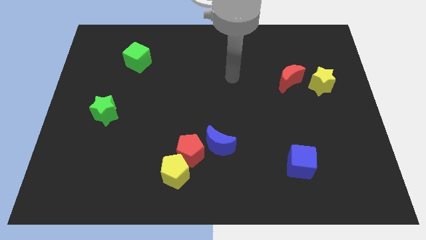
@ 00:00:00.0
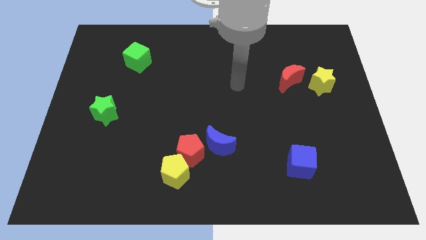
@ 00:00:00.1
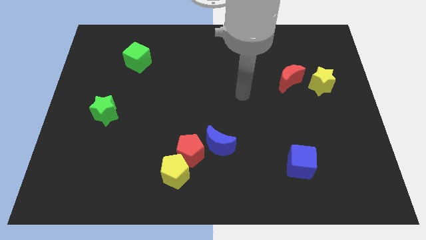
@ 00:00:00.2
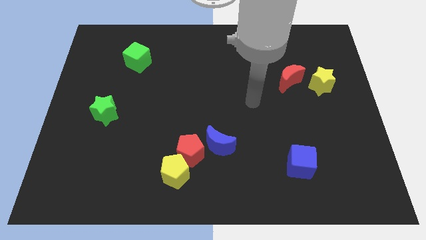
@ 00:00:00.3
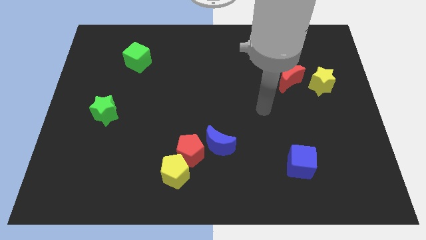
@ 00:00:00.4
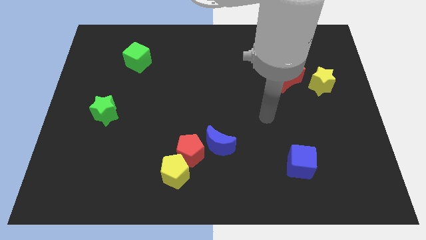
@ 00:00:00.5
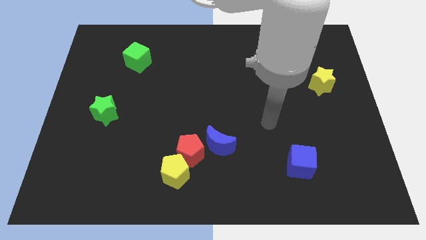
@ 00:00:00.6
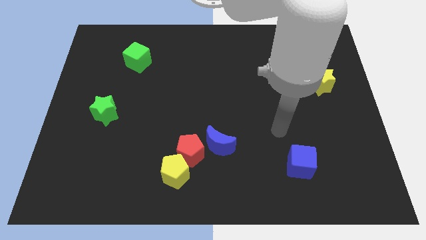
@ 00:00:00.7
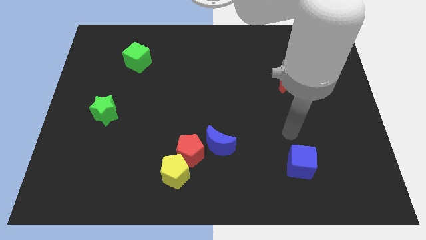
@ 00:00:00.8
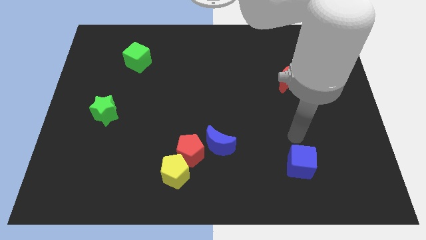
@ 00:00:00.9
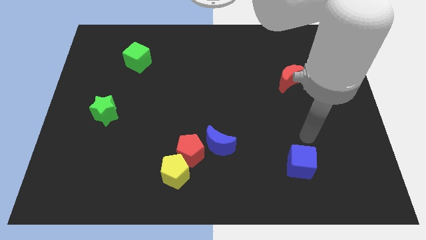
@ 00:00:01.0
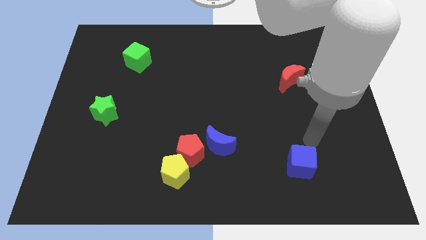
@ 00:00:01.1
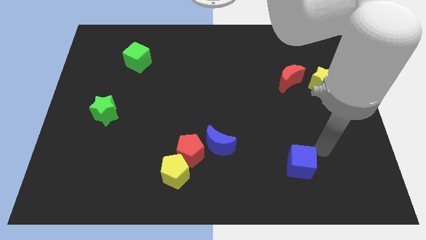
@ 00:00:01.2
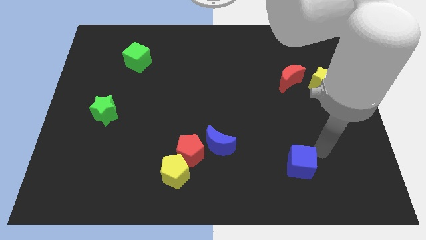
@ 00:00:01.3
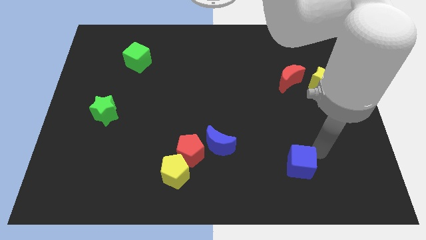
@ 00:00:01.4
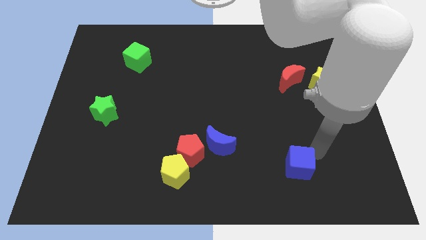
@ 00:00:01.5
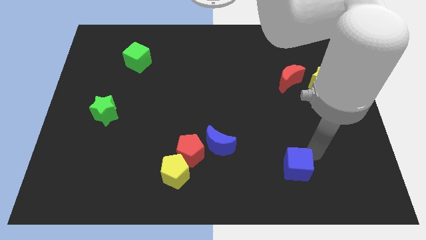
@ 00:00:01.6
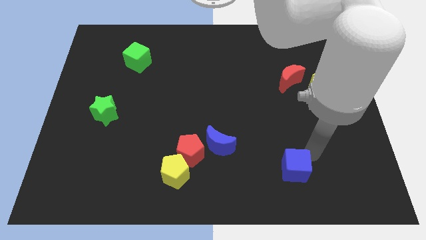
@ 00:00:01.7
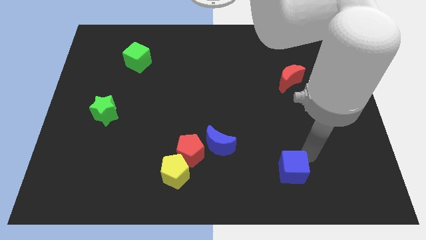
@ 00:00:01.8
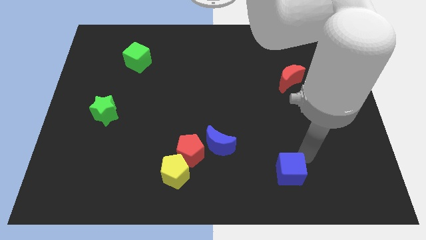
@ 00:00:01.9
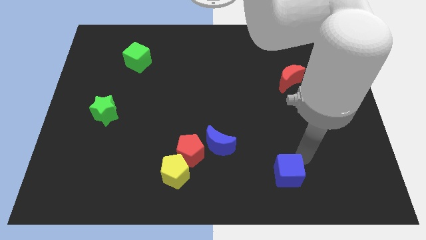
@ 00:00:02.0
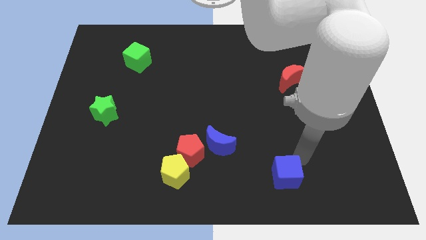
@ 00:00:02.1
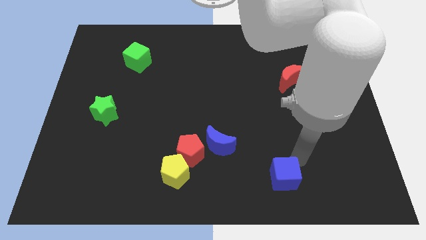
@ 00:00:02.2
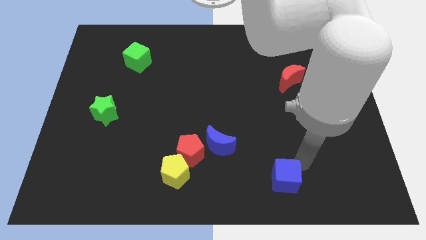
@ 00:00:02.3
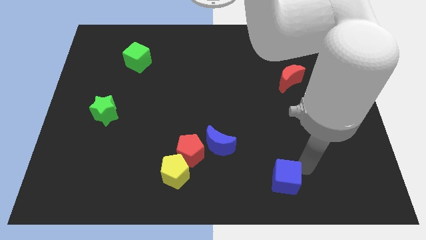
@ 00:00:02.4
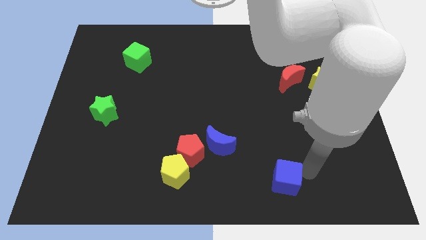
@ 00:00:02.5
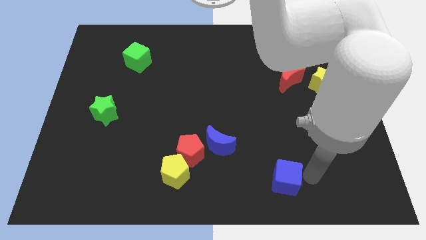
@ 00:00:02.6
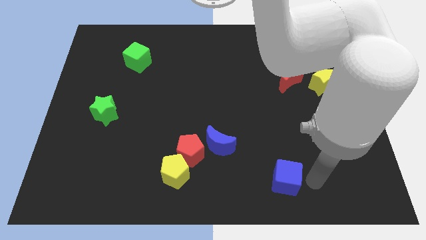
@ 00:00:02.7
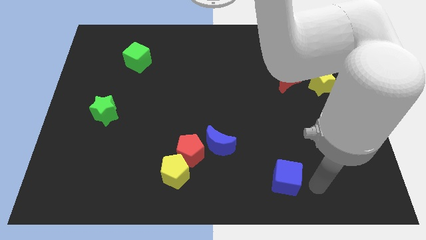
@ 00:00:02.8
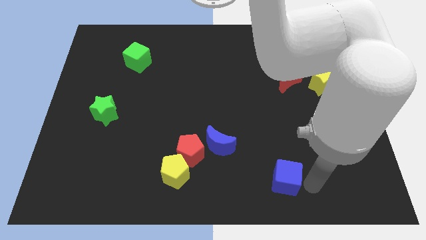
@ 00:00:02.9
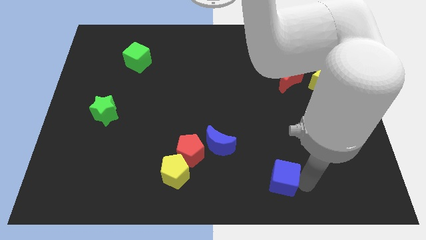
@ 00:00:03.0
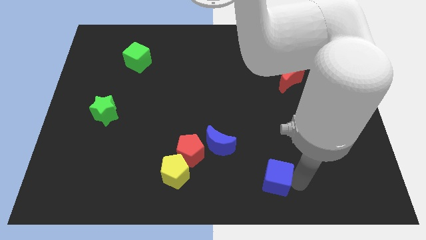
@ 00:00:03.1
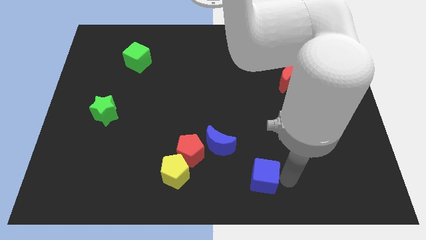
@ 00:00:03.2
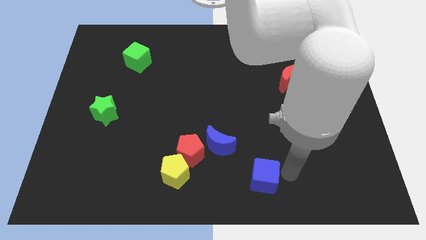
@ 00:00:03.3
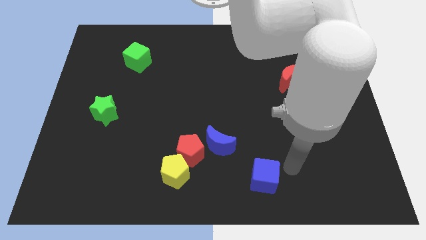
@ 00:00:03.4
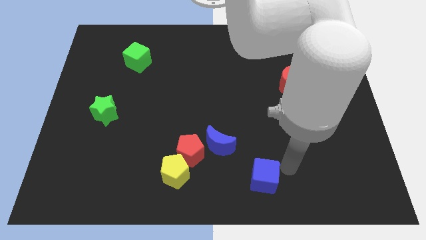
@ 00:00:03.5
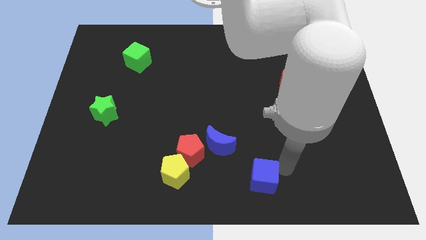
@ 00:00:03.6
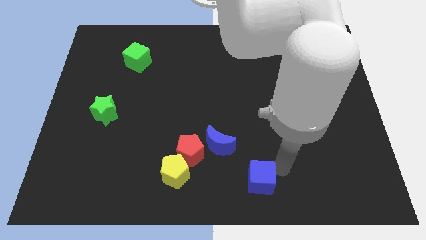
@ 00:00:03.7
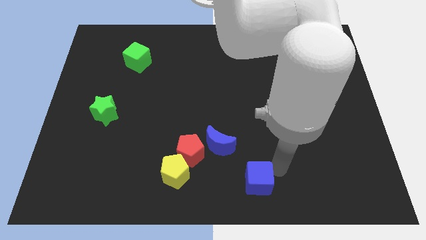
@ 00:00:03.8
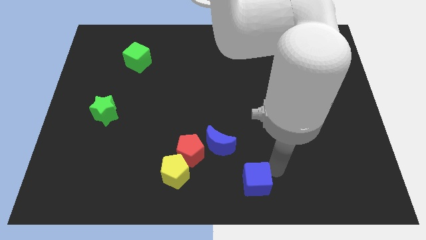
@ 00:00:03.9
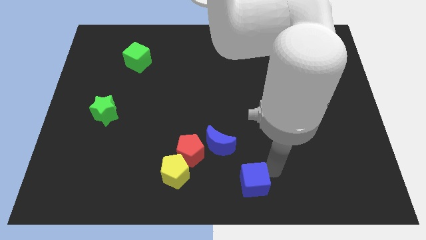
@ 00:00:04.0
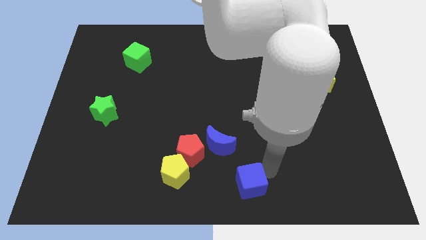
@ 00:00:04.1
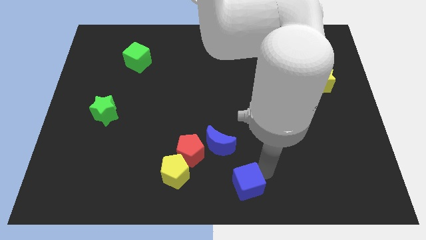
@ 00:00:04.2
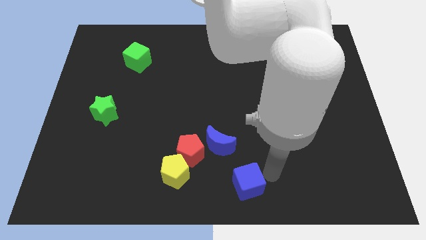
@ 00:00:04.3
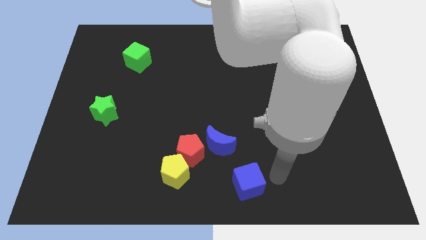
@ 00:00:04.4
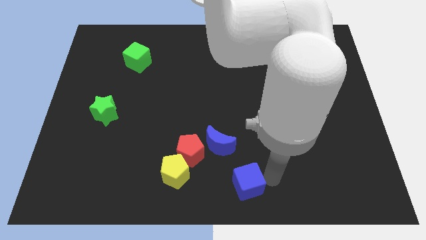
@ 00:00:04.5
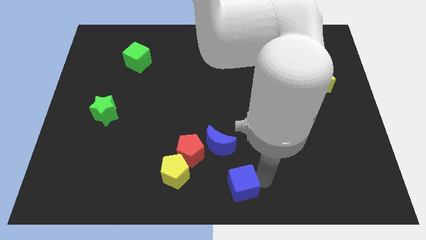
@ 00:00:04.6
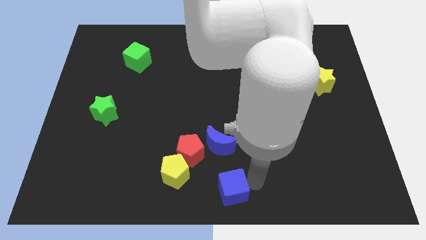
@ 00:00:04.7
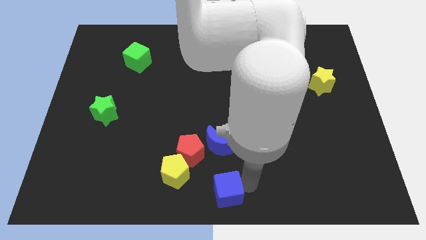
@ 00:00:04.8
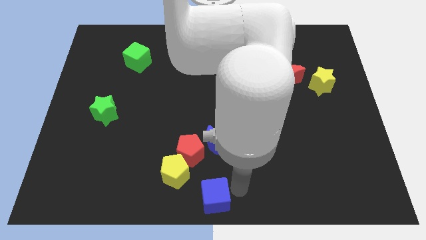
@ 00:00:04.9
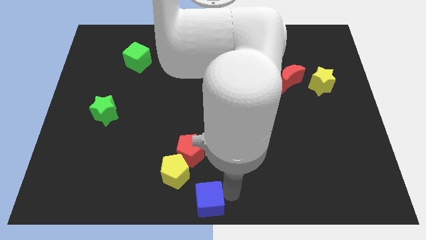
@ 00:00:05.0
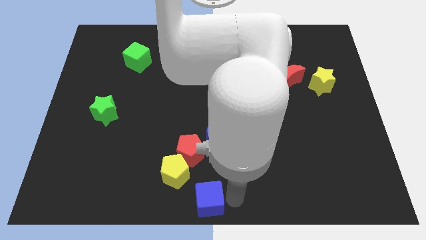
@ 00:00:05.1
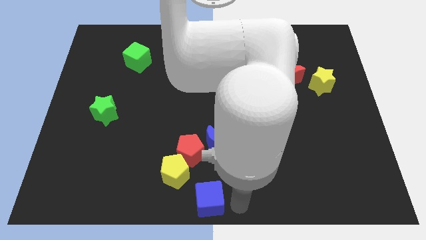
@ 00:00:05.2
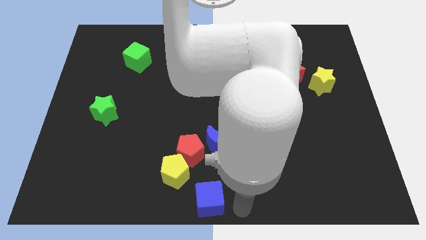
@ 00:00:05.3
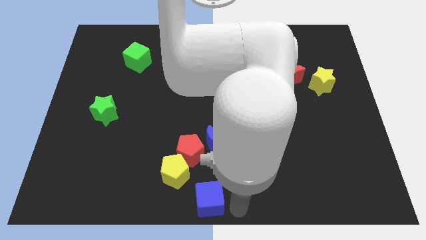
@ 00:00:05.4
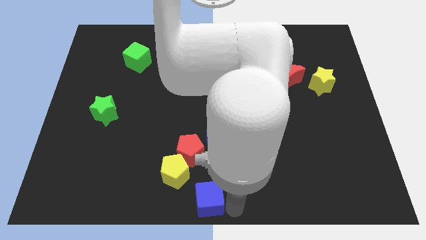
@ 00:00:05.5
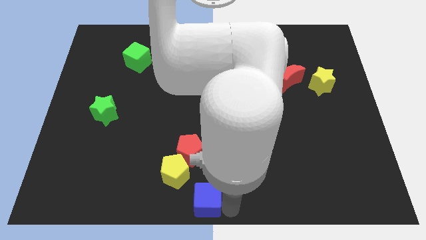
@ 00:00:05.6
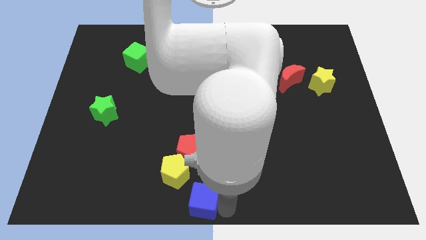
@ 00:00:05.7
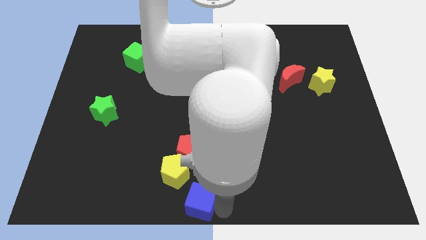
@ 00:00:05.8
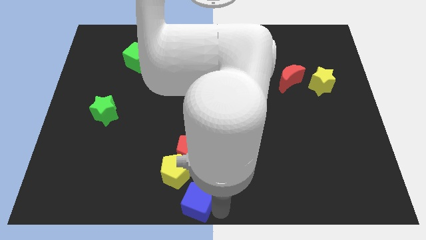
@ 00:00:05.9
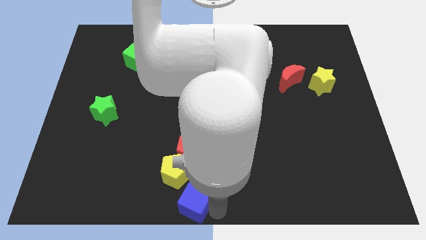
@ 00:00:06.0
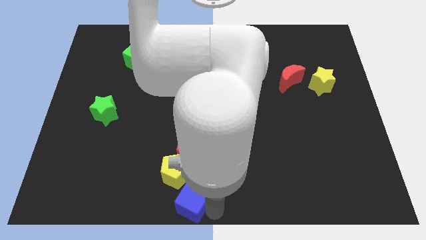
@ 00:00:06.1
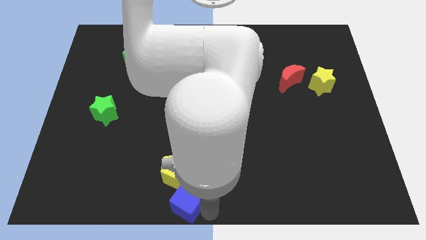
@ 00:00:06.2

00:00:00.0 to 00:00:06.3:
slide the blue cube left

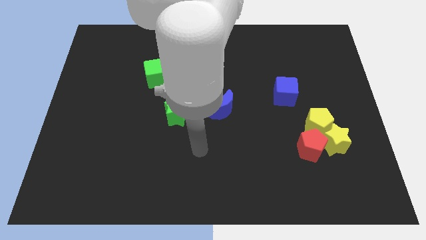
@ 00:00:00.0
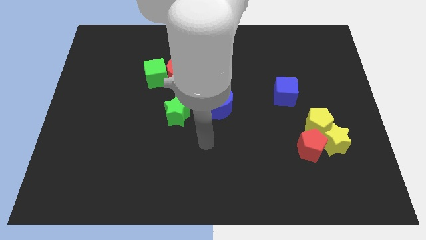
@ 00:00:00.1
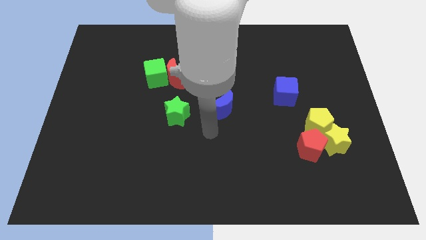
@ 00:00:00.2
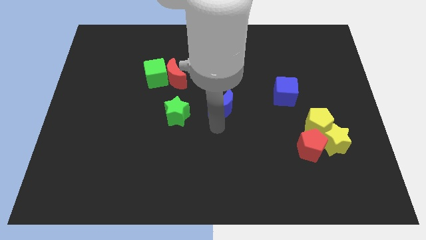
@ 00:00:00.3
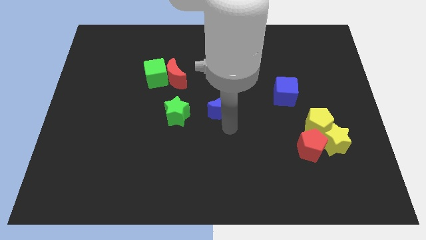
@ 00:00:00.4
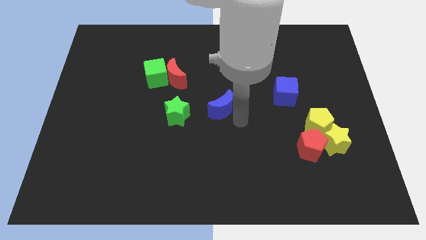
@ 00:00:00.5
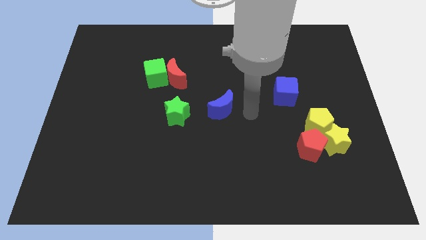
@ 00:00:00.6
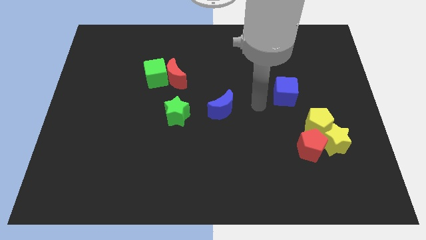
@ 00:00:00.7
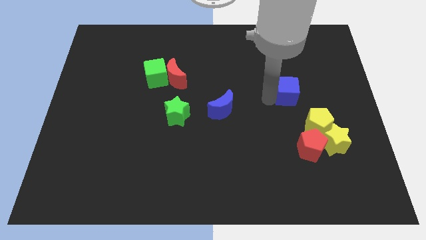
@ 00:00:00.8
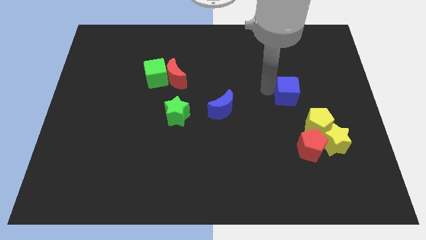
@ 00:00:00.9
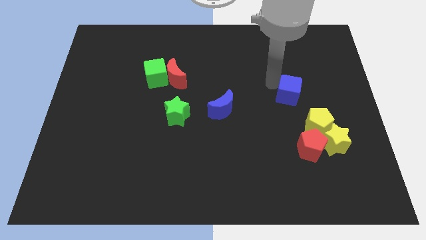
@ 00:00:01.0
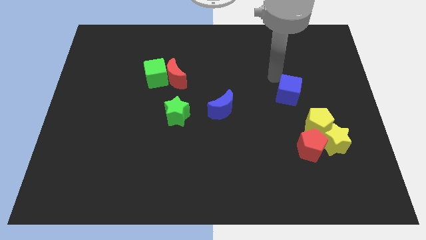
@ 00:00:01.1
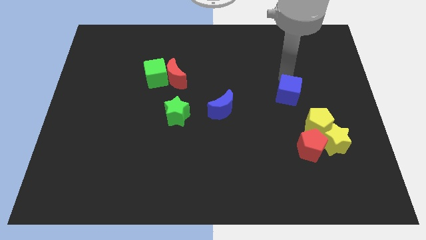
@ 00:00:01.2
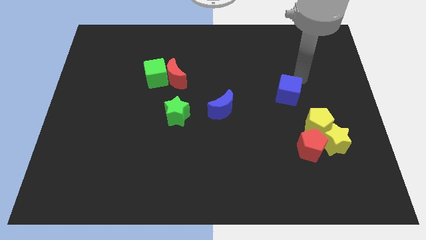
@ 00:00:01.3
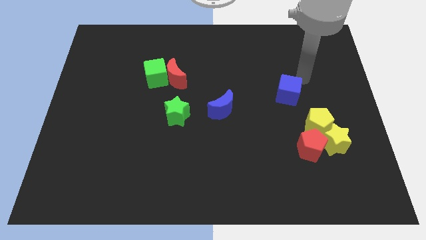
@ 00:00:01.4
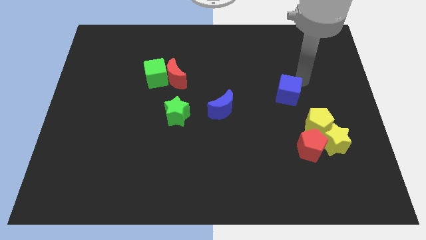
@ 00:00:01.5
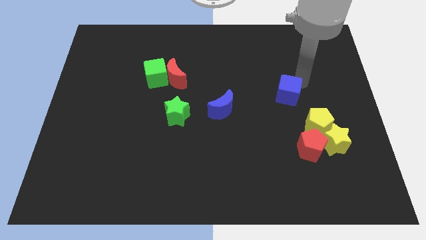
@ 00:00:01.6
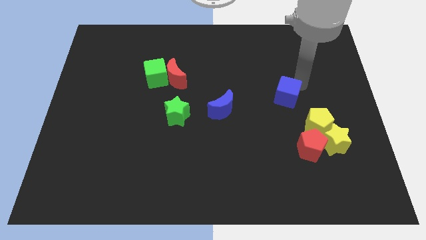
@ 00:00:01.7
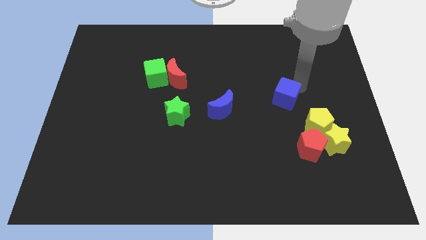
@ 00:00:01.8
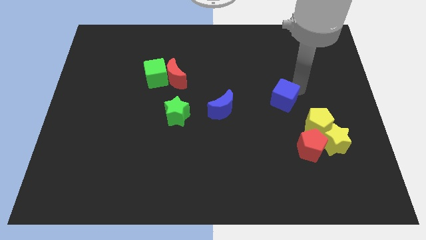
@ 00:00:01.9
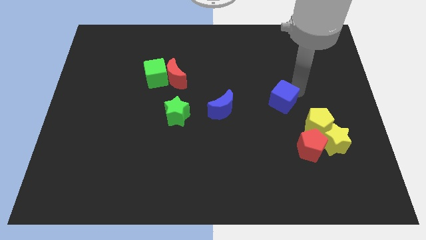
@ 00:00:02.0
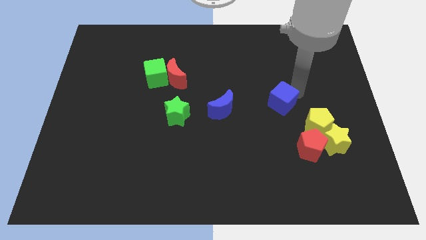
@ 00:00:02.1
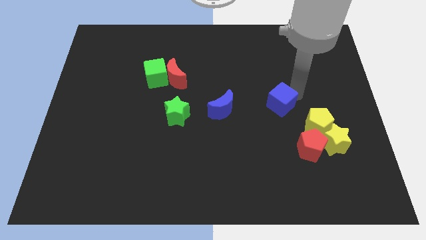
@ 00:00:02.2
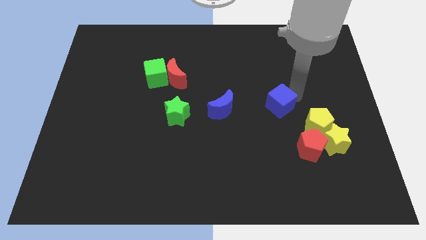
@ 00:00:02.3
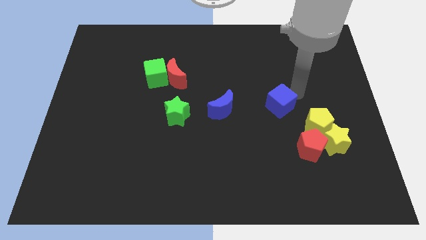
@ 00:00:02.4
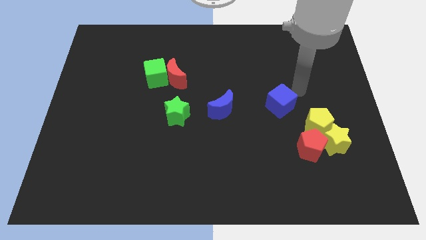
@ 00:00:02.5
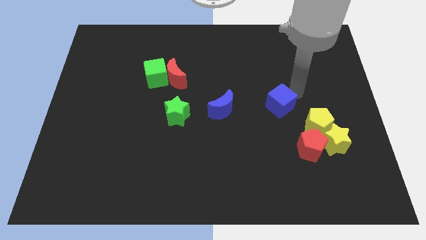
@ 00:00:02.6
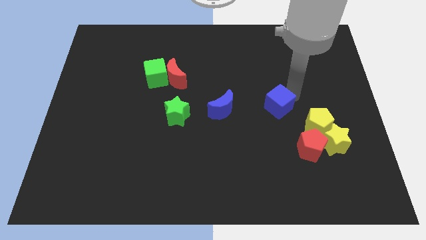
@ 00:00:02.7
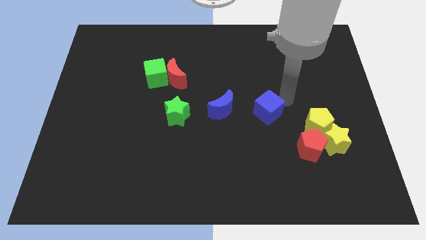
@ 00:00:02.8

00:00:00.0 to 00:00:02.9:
slide the blue cube a little down and then left
